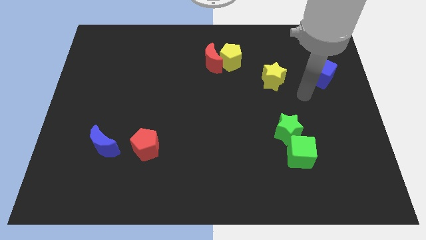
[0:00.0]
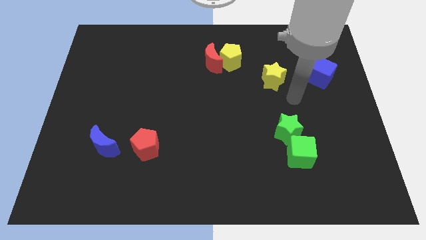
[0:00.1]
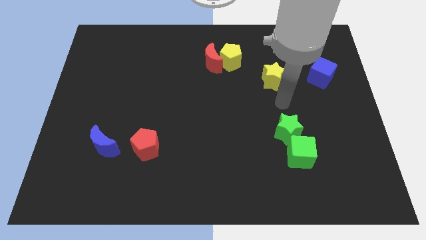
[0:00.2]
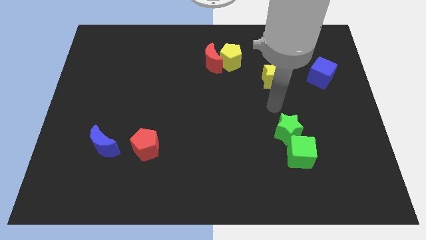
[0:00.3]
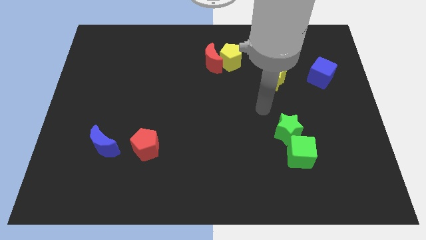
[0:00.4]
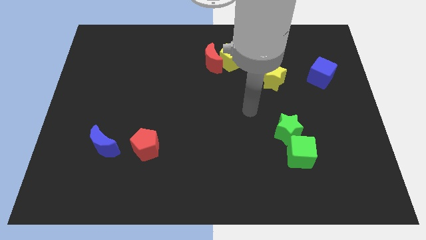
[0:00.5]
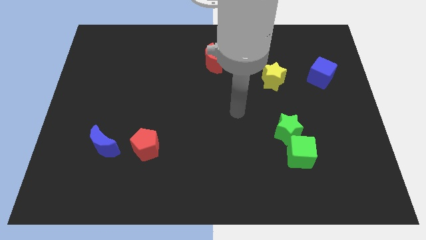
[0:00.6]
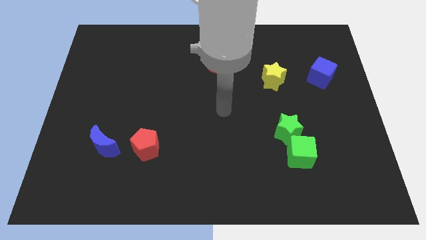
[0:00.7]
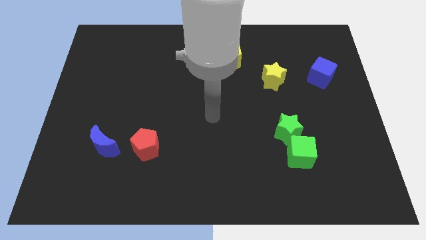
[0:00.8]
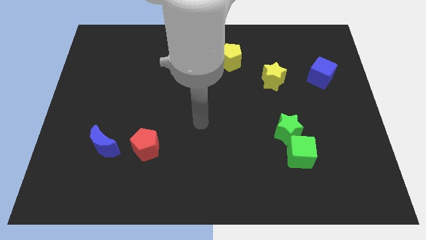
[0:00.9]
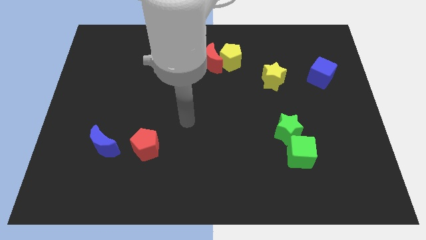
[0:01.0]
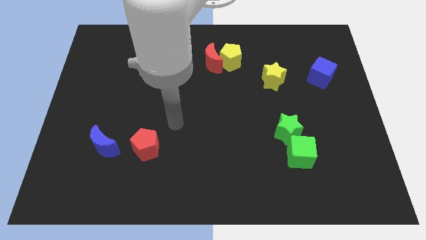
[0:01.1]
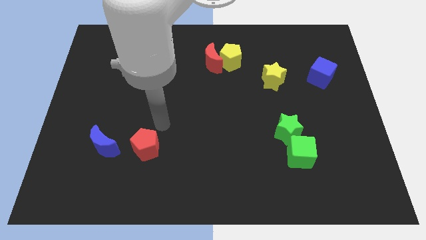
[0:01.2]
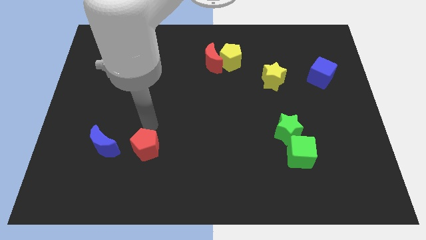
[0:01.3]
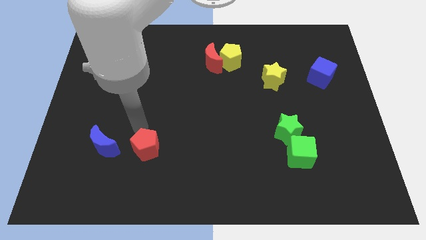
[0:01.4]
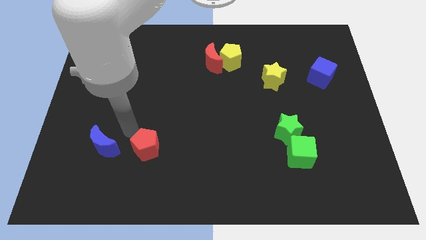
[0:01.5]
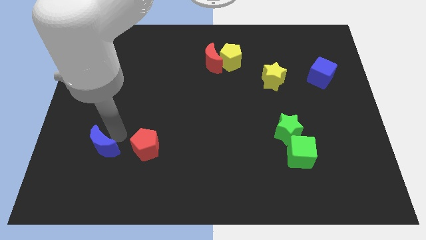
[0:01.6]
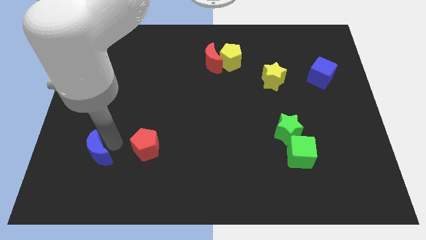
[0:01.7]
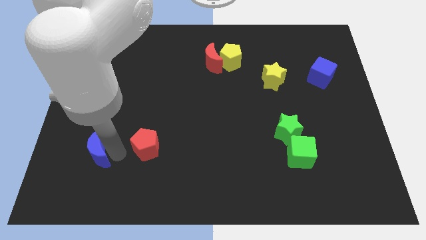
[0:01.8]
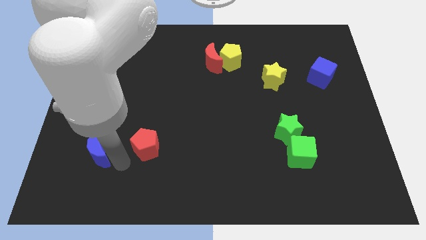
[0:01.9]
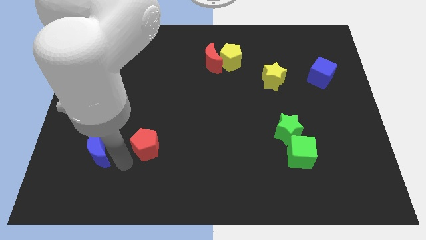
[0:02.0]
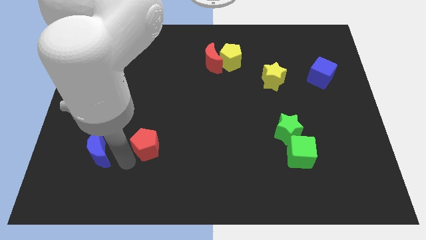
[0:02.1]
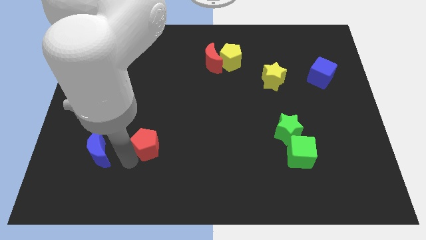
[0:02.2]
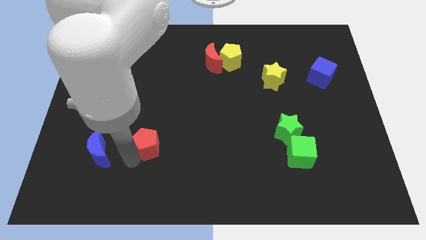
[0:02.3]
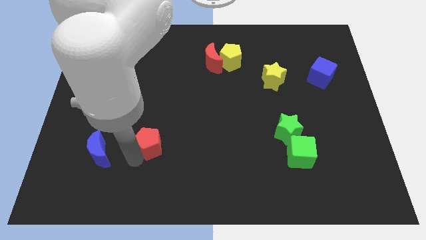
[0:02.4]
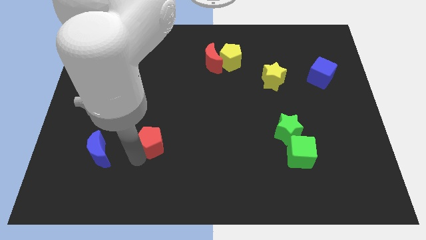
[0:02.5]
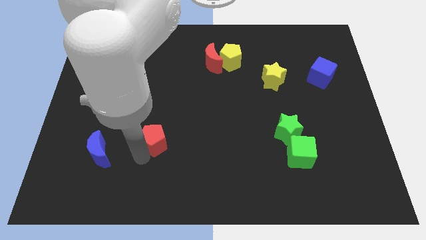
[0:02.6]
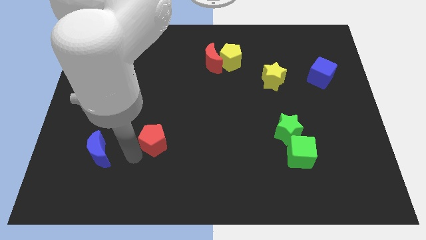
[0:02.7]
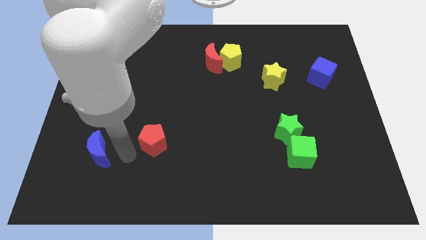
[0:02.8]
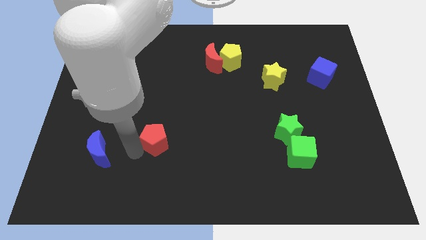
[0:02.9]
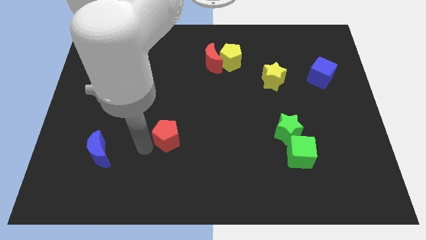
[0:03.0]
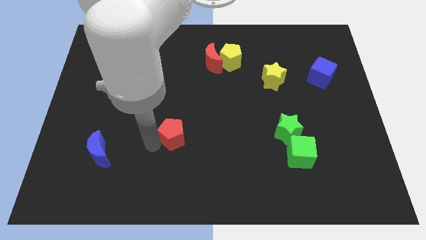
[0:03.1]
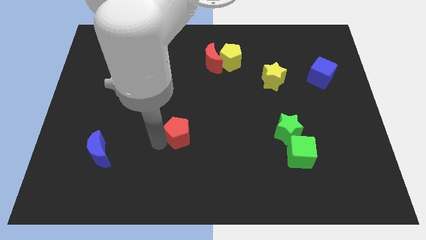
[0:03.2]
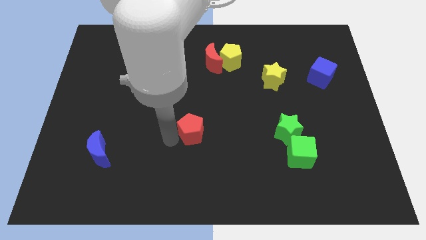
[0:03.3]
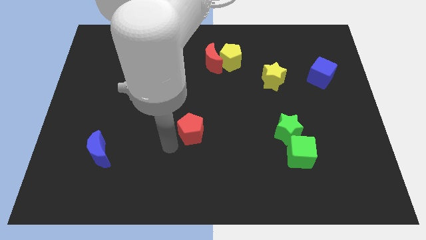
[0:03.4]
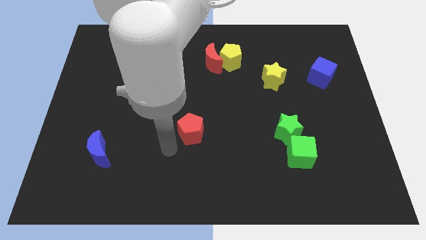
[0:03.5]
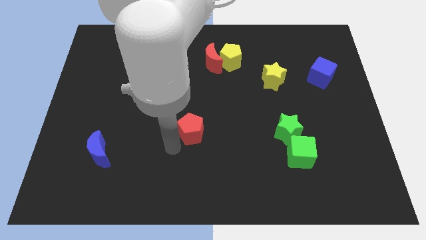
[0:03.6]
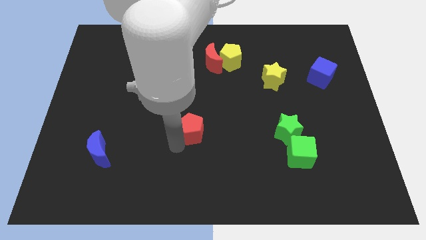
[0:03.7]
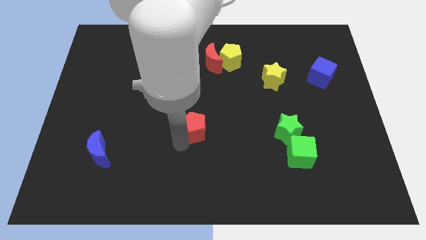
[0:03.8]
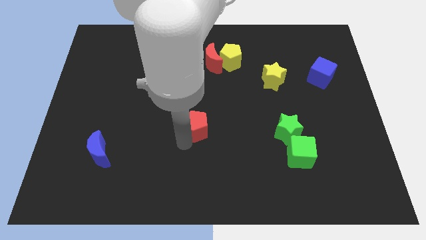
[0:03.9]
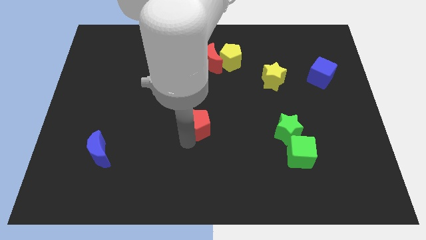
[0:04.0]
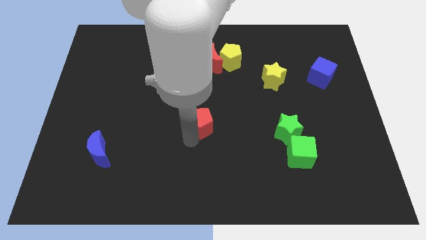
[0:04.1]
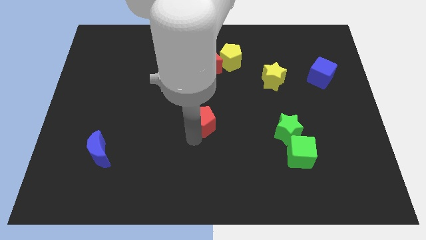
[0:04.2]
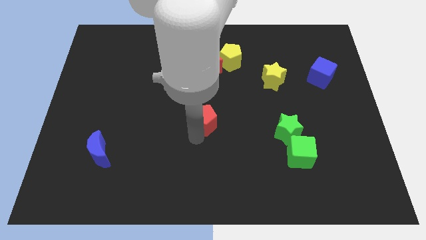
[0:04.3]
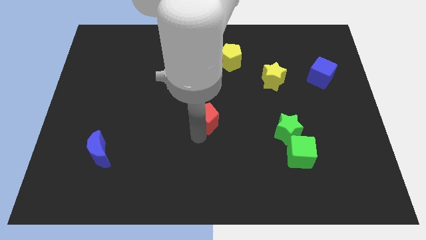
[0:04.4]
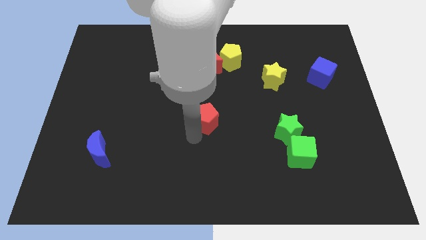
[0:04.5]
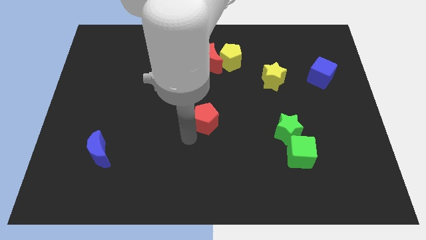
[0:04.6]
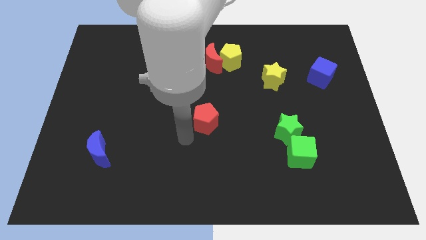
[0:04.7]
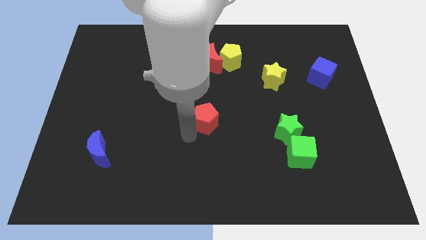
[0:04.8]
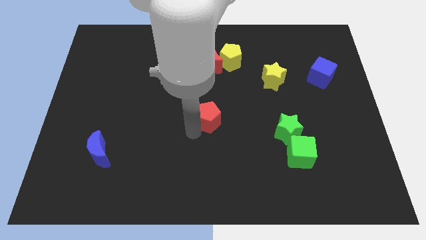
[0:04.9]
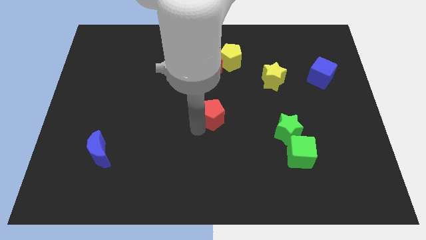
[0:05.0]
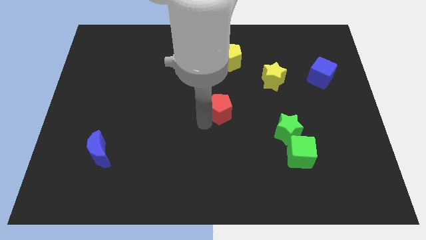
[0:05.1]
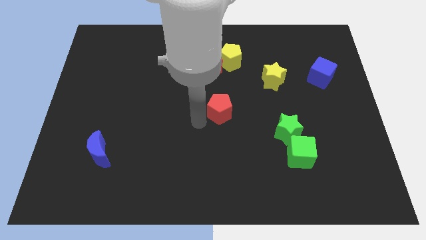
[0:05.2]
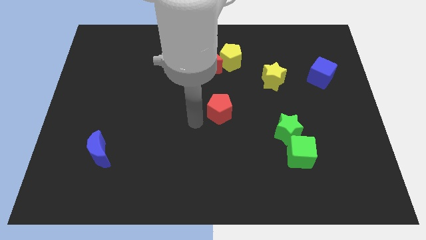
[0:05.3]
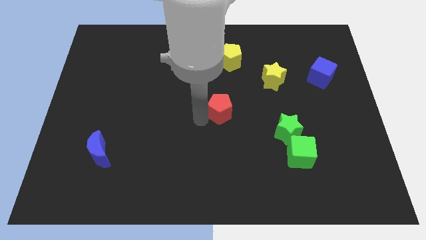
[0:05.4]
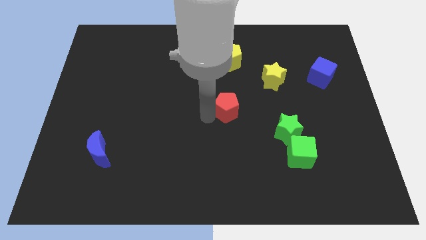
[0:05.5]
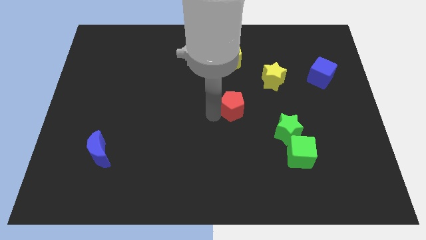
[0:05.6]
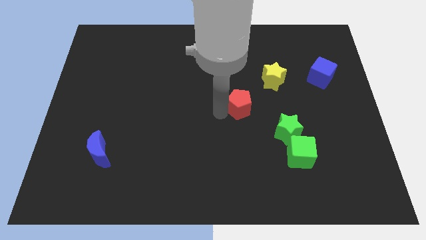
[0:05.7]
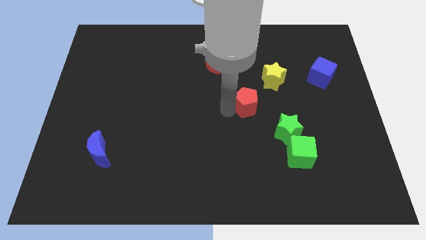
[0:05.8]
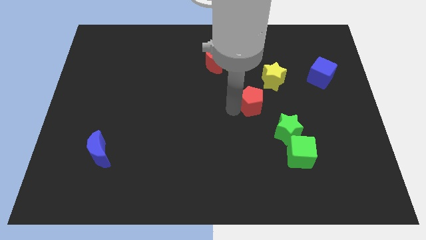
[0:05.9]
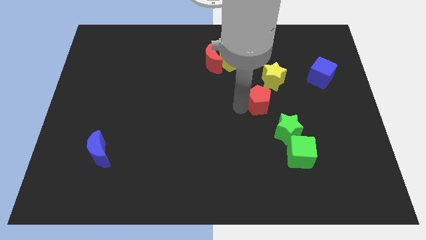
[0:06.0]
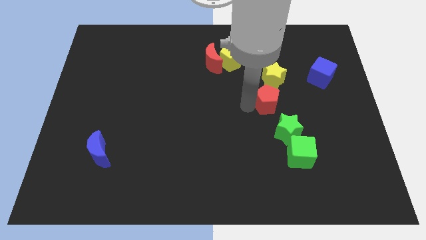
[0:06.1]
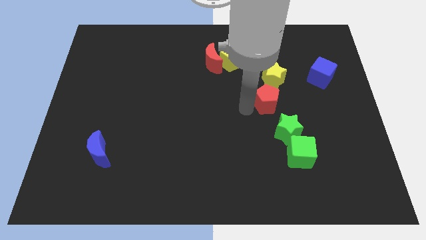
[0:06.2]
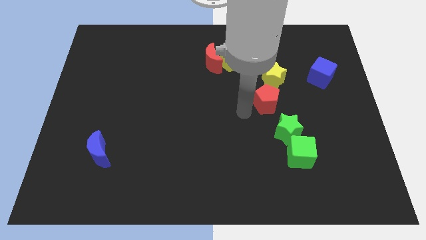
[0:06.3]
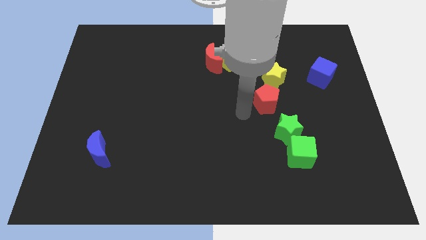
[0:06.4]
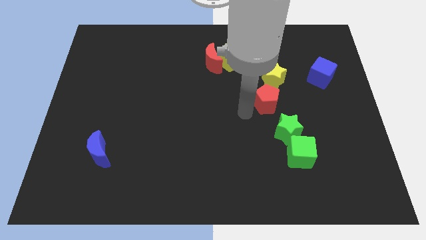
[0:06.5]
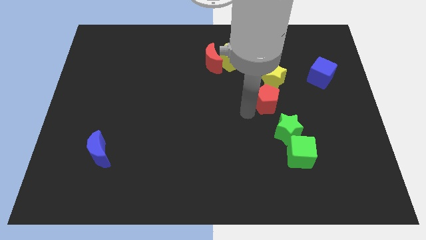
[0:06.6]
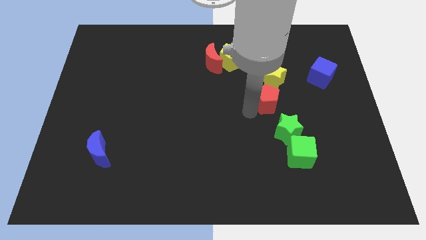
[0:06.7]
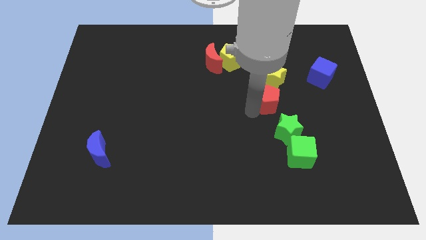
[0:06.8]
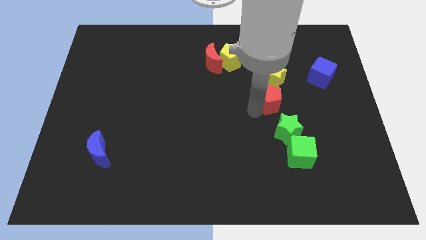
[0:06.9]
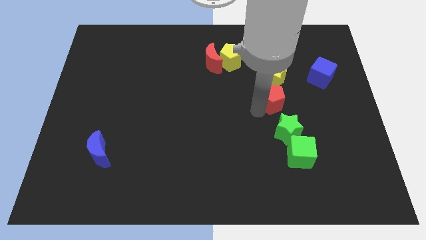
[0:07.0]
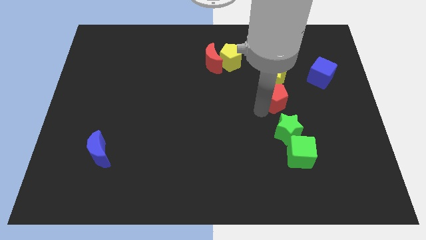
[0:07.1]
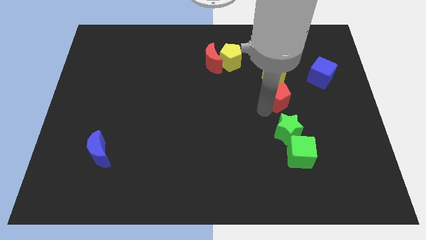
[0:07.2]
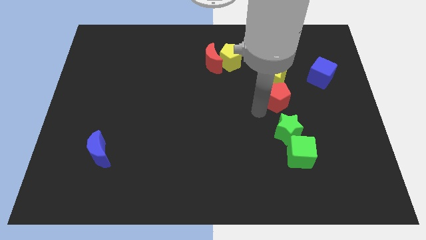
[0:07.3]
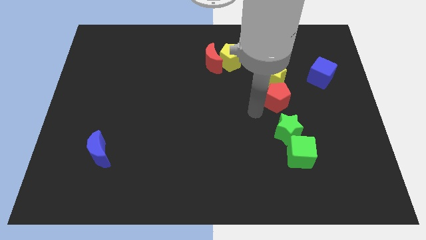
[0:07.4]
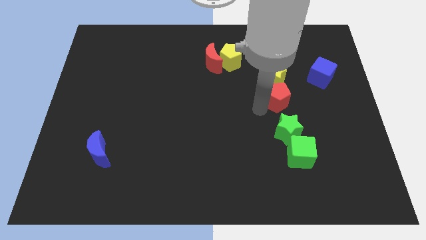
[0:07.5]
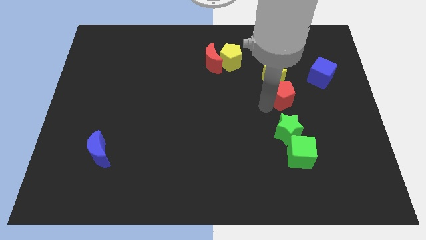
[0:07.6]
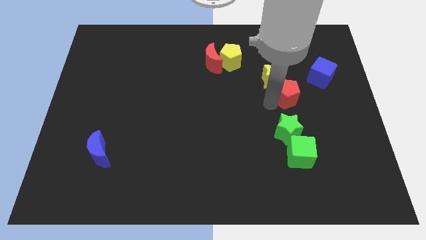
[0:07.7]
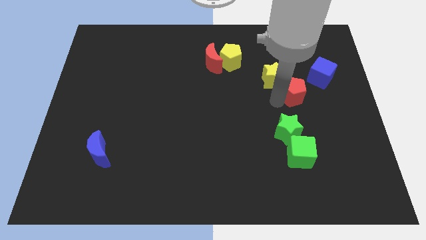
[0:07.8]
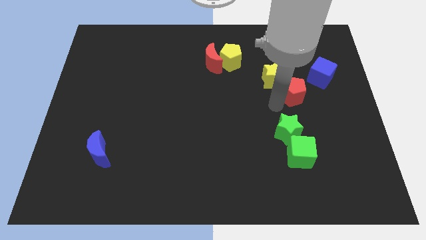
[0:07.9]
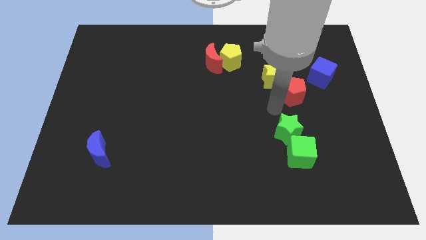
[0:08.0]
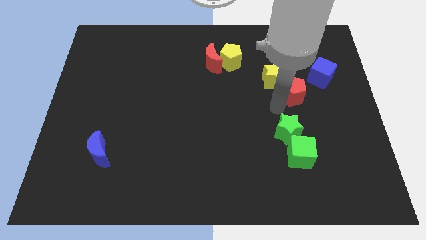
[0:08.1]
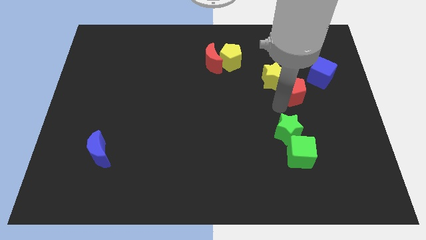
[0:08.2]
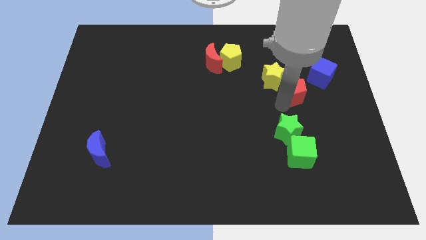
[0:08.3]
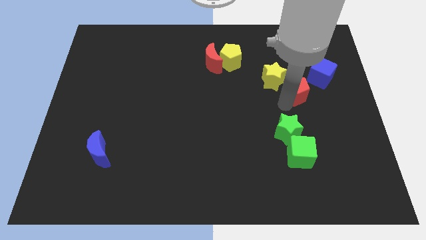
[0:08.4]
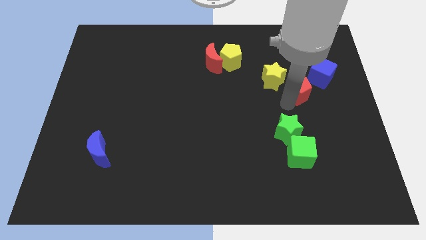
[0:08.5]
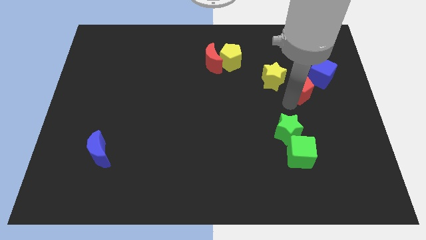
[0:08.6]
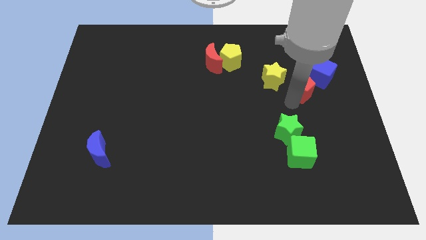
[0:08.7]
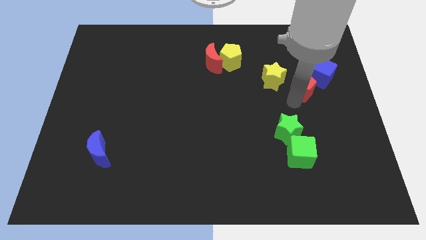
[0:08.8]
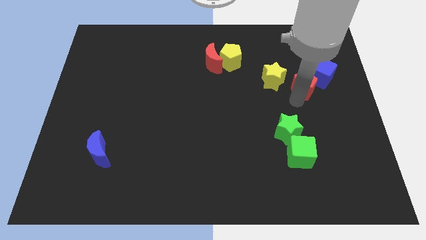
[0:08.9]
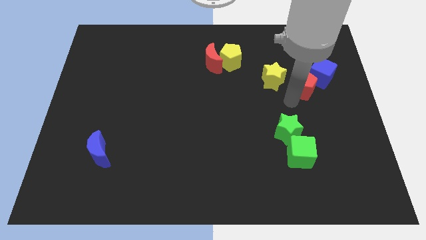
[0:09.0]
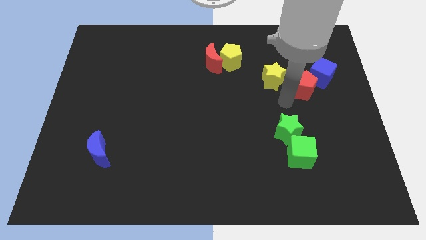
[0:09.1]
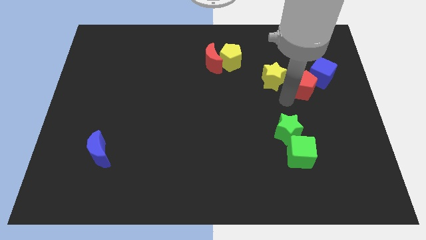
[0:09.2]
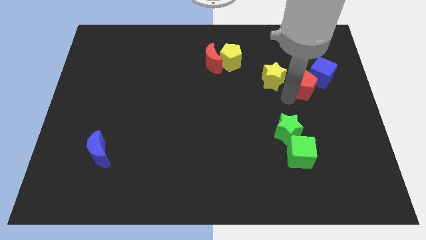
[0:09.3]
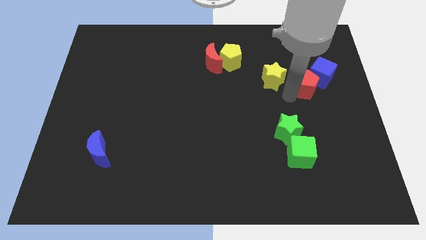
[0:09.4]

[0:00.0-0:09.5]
slide the red pentagon close to the blue cube
